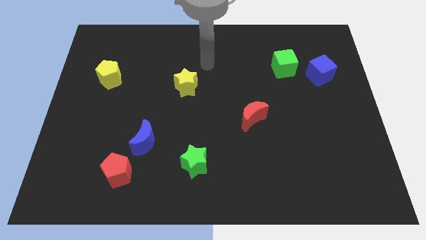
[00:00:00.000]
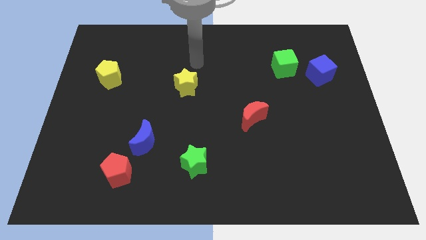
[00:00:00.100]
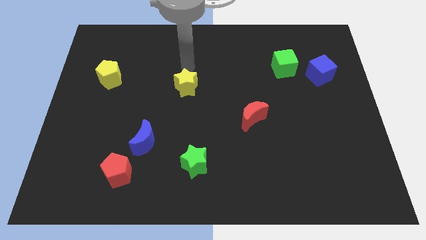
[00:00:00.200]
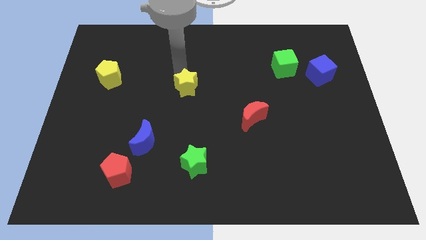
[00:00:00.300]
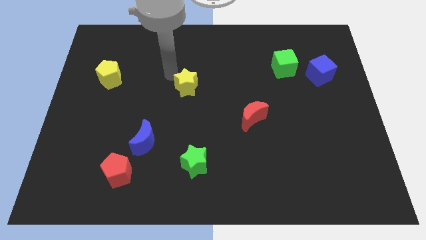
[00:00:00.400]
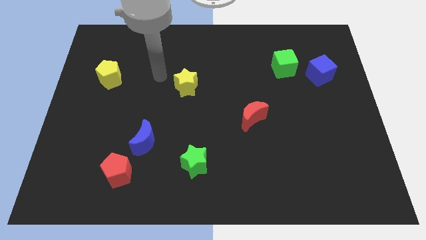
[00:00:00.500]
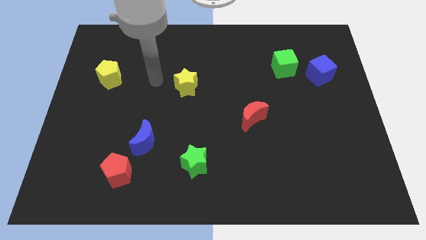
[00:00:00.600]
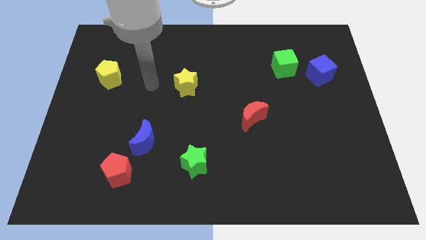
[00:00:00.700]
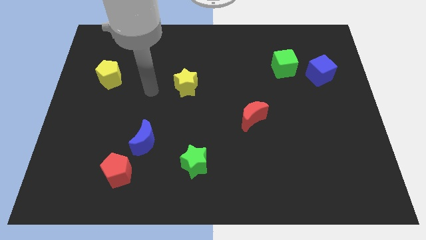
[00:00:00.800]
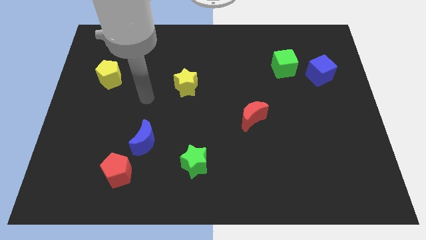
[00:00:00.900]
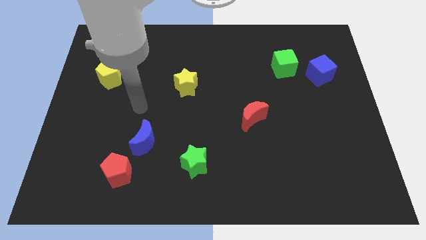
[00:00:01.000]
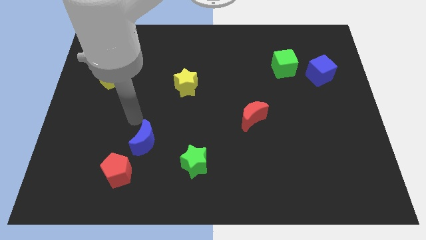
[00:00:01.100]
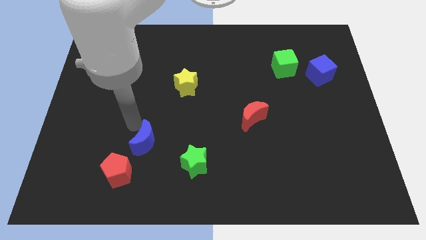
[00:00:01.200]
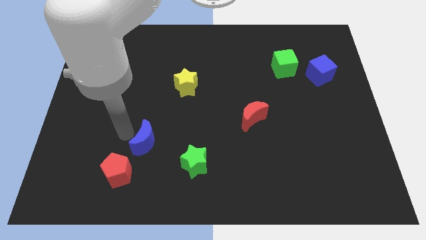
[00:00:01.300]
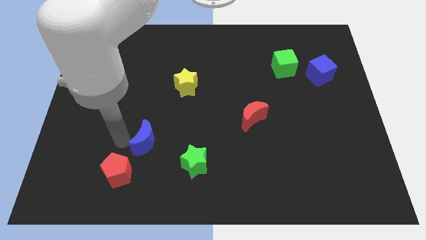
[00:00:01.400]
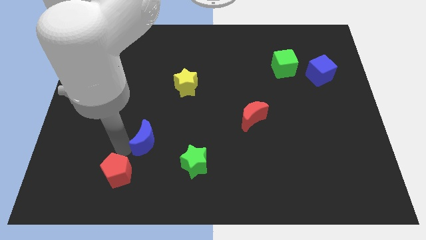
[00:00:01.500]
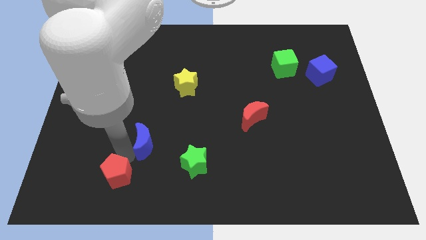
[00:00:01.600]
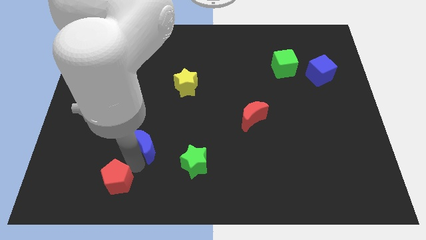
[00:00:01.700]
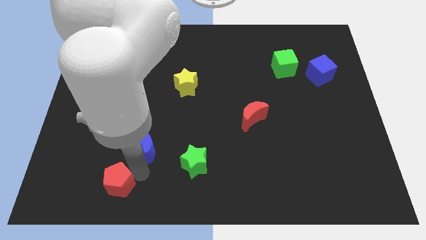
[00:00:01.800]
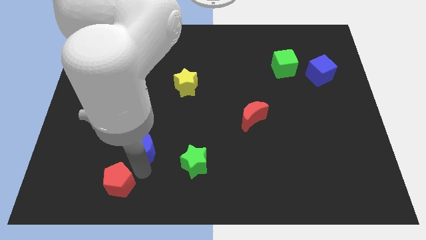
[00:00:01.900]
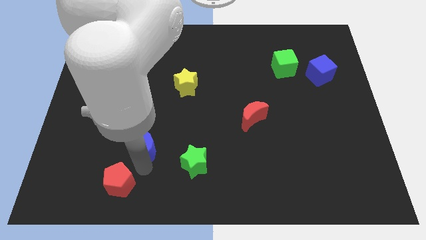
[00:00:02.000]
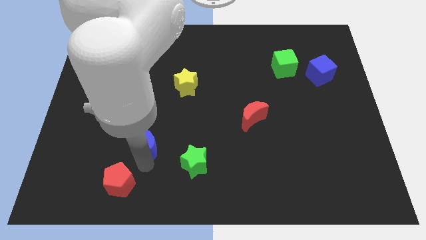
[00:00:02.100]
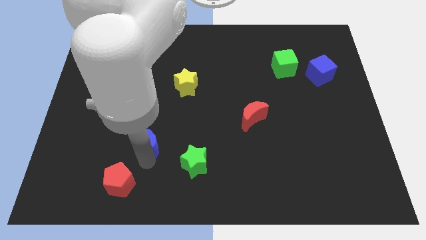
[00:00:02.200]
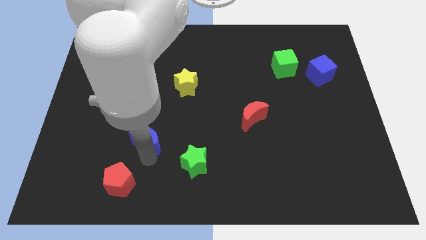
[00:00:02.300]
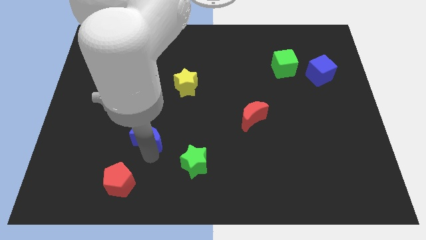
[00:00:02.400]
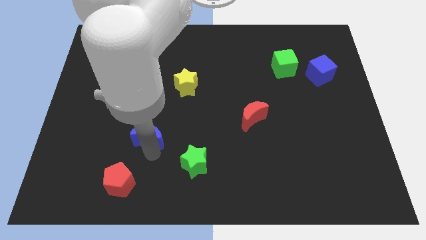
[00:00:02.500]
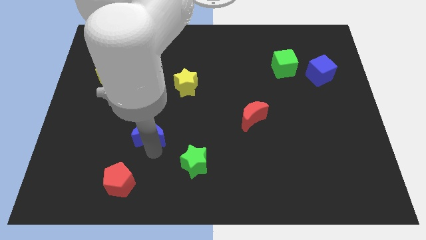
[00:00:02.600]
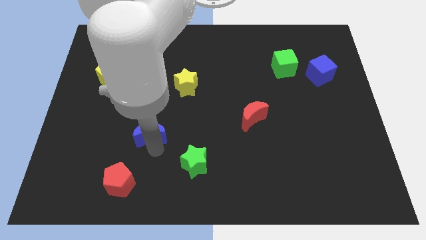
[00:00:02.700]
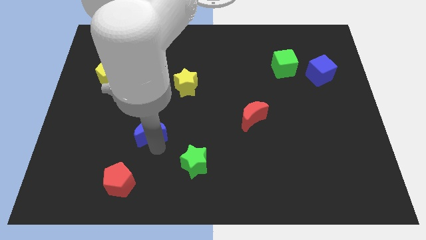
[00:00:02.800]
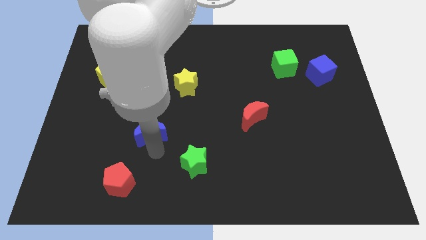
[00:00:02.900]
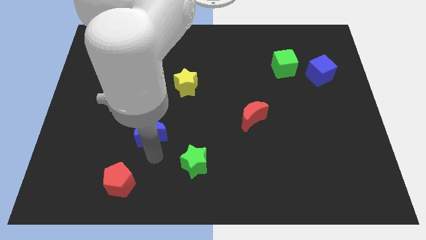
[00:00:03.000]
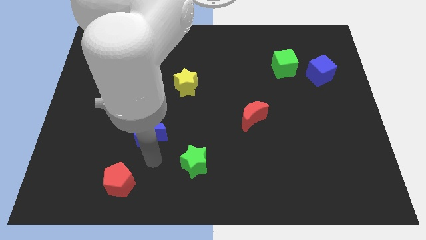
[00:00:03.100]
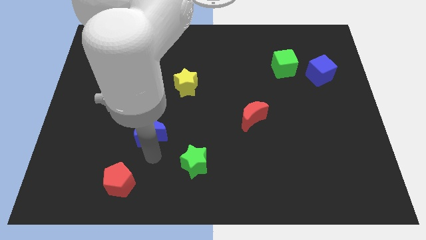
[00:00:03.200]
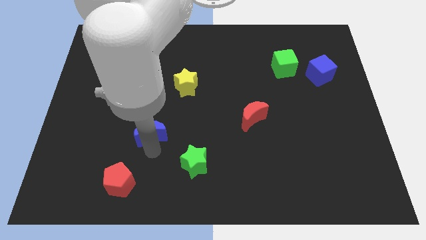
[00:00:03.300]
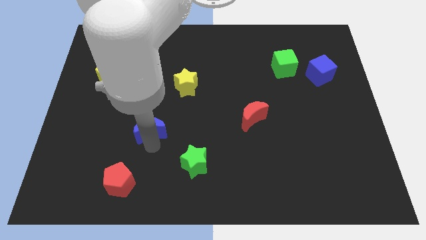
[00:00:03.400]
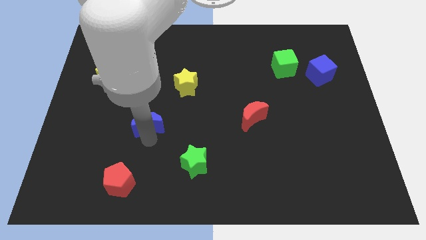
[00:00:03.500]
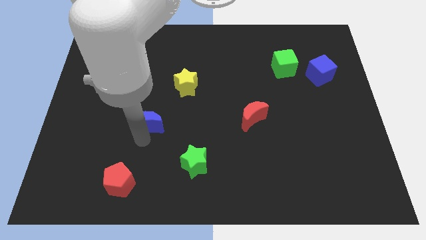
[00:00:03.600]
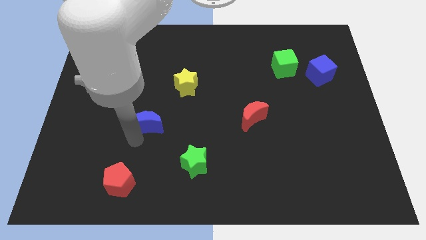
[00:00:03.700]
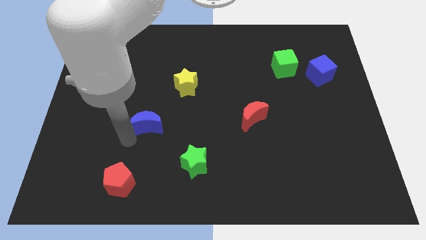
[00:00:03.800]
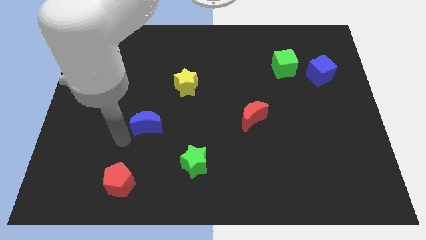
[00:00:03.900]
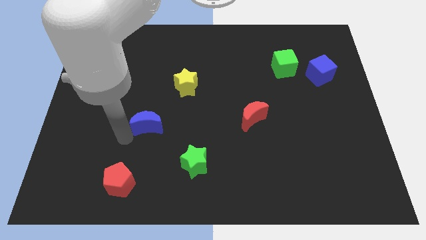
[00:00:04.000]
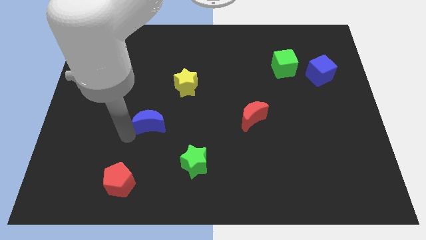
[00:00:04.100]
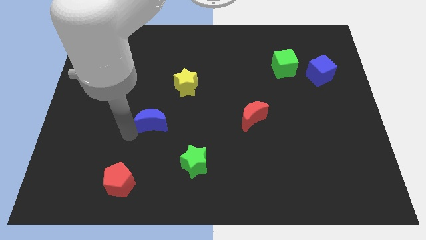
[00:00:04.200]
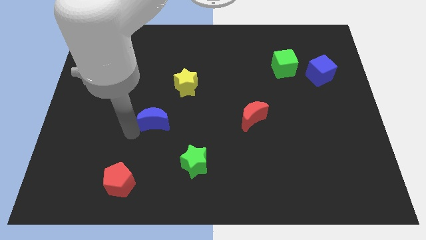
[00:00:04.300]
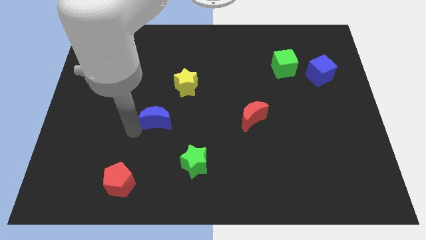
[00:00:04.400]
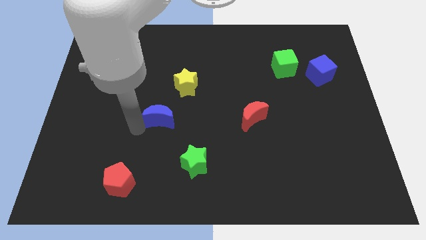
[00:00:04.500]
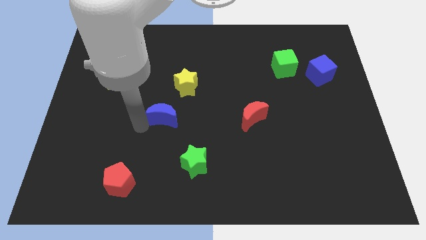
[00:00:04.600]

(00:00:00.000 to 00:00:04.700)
move the blue moon up and right diagonally a little

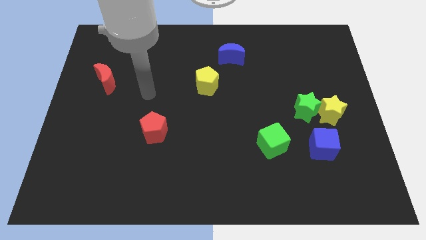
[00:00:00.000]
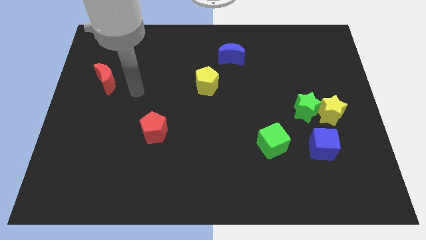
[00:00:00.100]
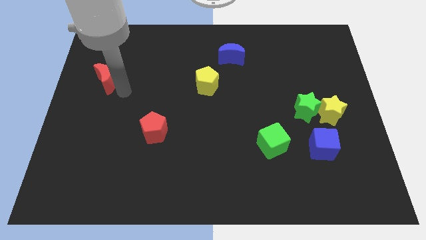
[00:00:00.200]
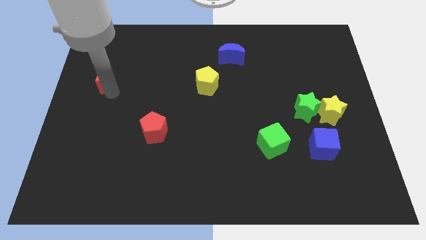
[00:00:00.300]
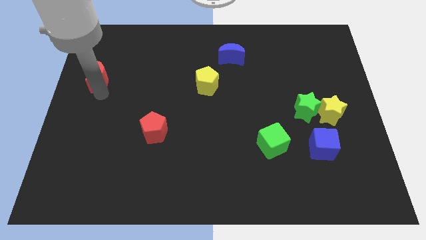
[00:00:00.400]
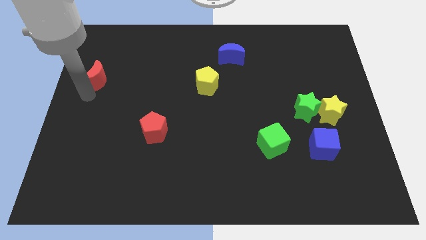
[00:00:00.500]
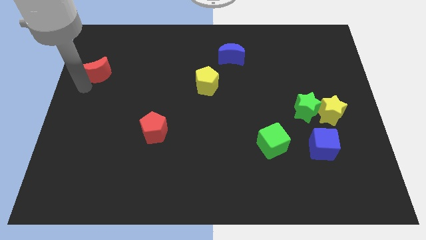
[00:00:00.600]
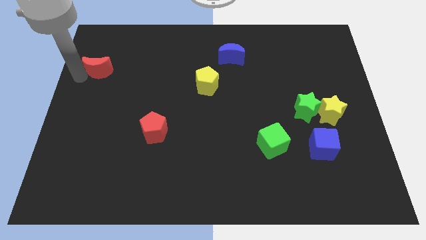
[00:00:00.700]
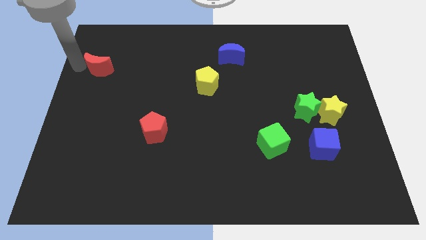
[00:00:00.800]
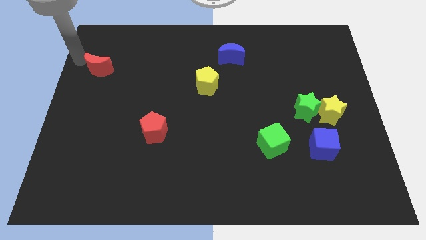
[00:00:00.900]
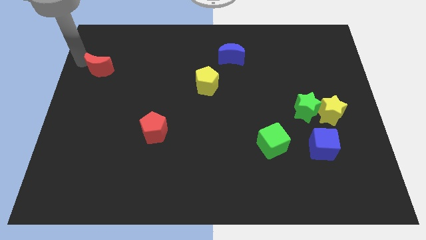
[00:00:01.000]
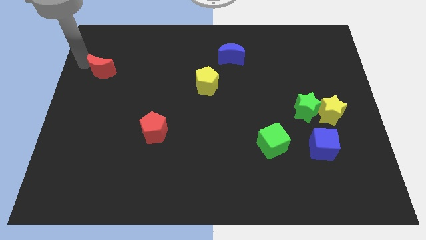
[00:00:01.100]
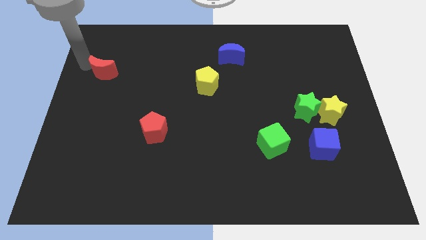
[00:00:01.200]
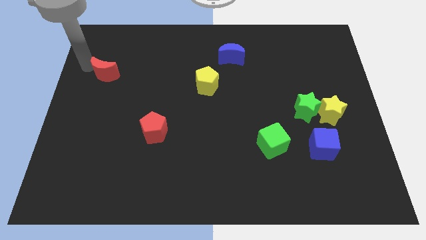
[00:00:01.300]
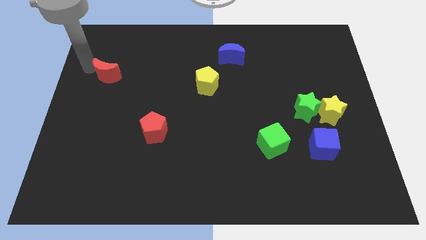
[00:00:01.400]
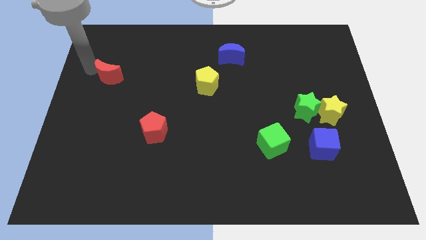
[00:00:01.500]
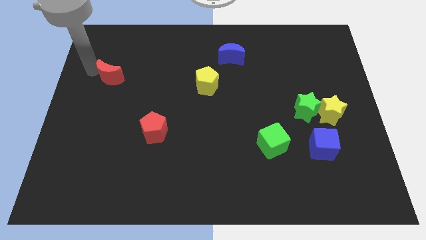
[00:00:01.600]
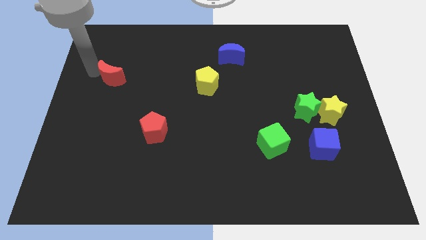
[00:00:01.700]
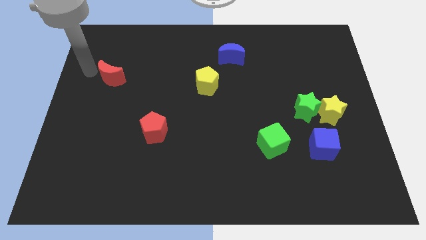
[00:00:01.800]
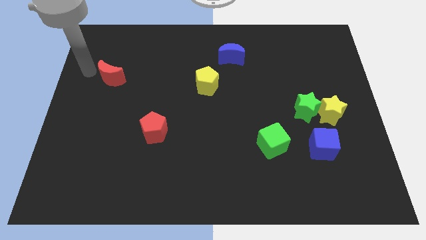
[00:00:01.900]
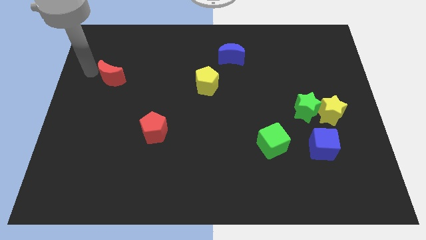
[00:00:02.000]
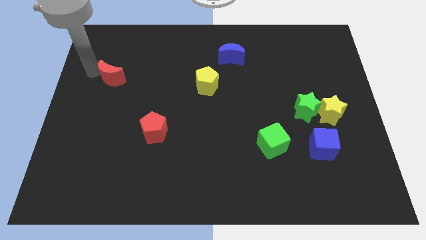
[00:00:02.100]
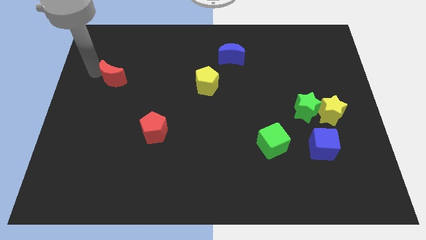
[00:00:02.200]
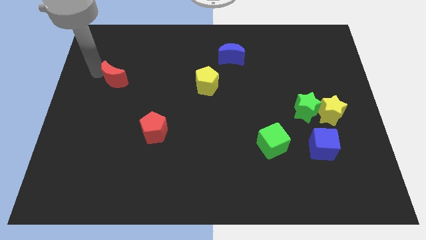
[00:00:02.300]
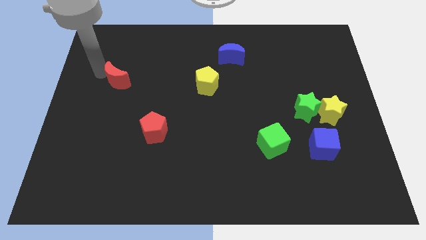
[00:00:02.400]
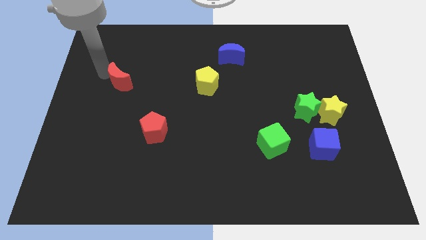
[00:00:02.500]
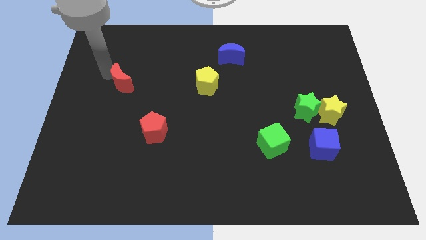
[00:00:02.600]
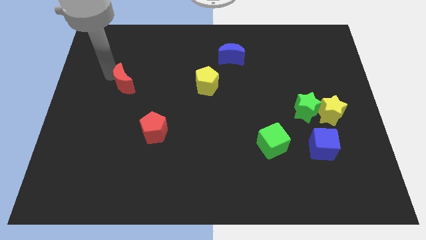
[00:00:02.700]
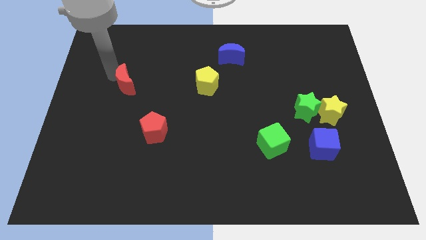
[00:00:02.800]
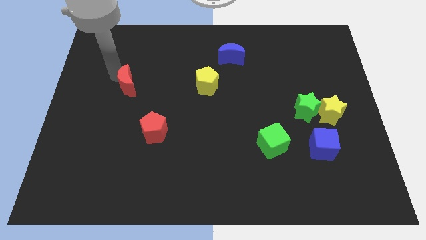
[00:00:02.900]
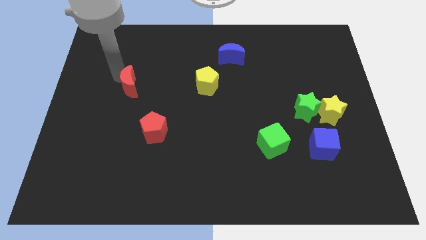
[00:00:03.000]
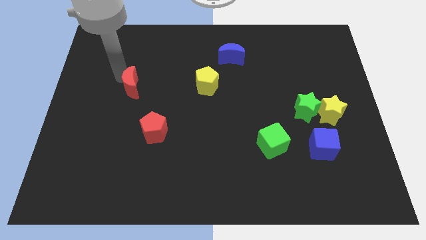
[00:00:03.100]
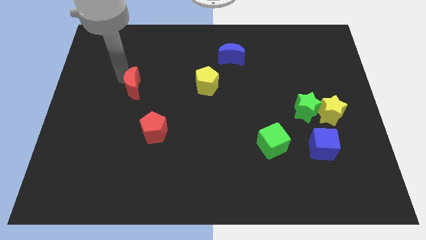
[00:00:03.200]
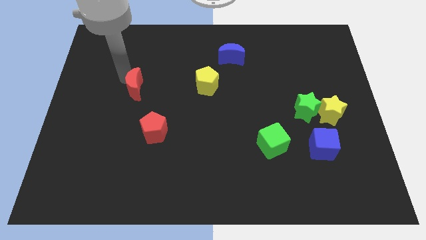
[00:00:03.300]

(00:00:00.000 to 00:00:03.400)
move the red moon to the right a little bit
